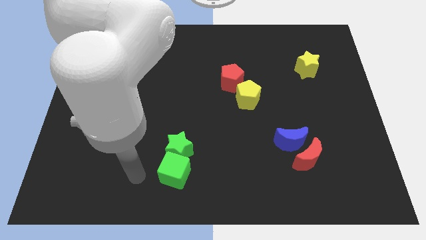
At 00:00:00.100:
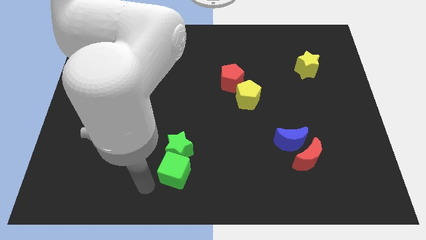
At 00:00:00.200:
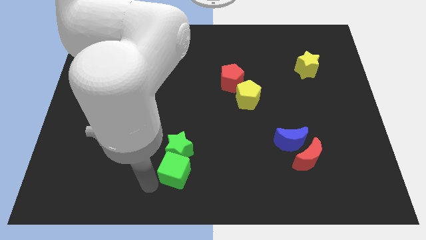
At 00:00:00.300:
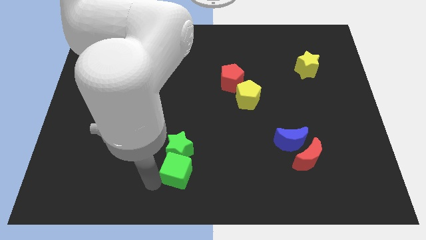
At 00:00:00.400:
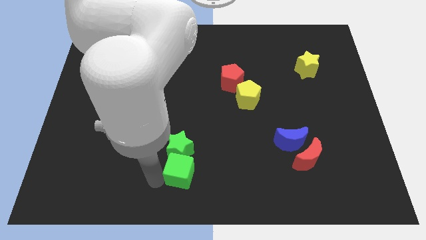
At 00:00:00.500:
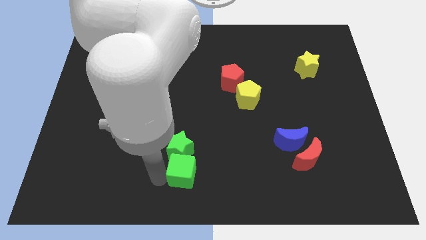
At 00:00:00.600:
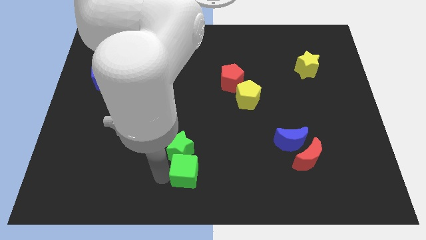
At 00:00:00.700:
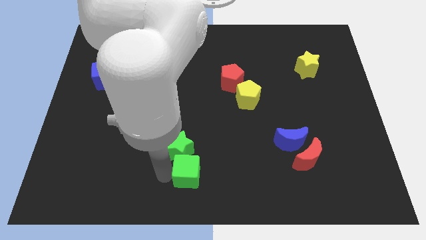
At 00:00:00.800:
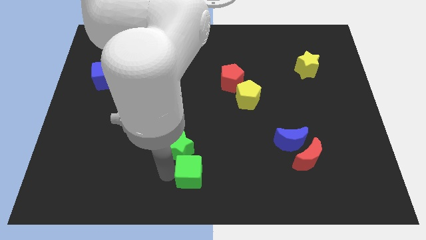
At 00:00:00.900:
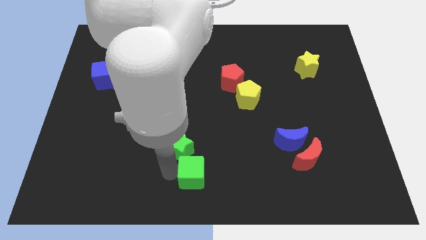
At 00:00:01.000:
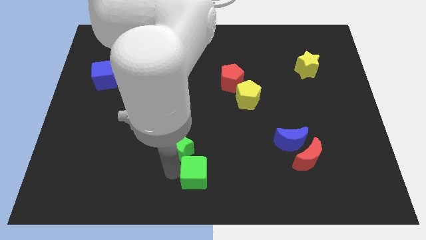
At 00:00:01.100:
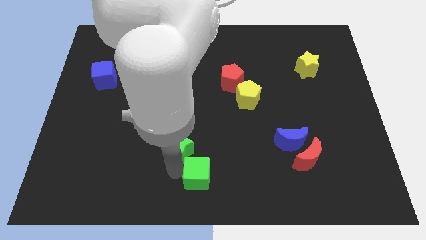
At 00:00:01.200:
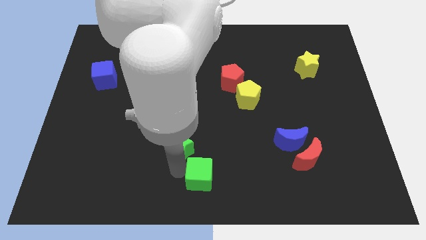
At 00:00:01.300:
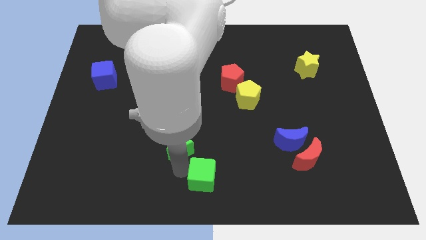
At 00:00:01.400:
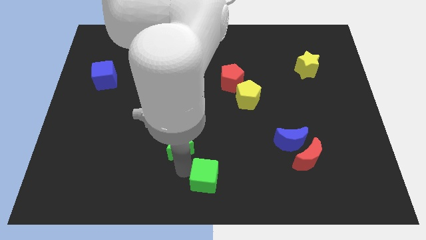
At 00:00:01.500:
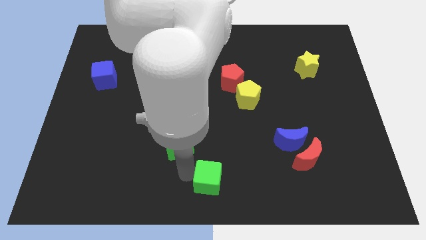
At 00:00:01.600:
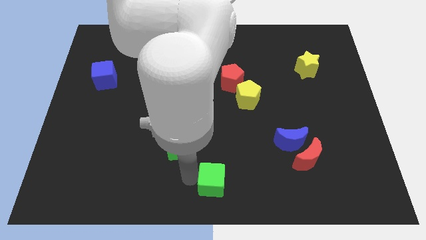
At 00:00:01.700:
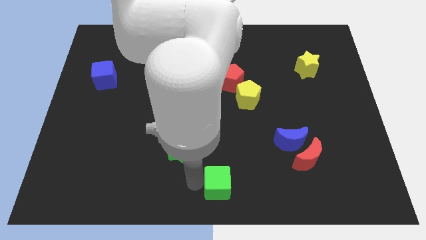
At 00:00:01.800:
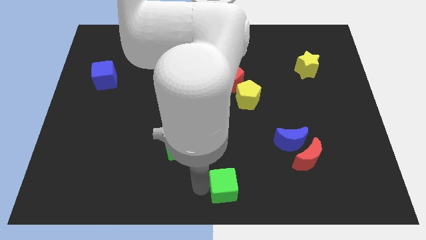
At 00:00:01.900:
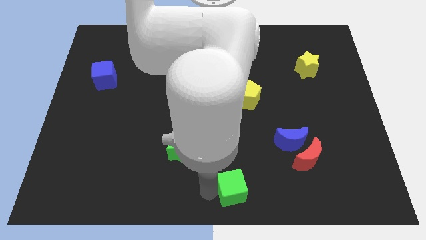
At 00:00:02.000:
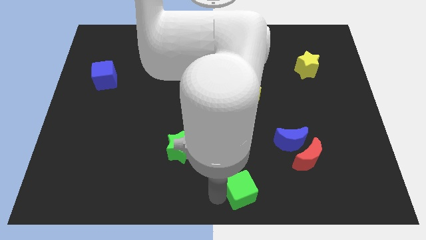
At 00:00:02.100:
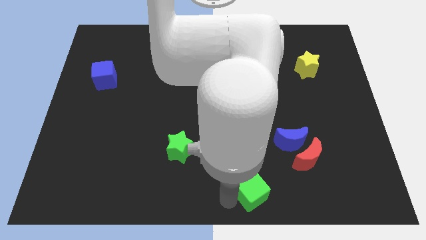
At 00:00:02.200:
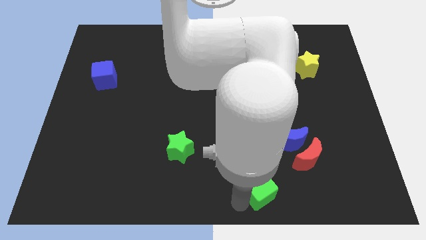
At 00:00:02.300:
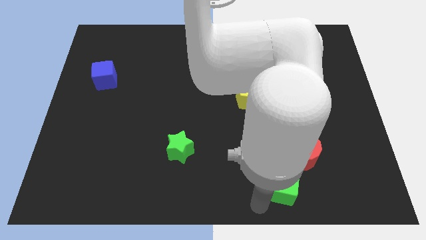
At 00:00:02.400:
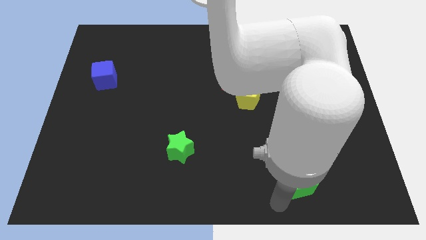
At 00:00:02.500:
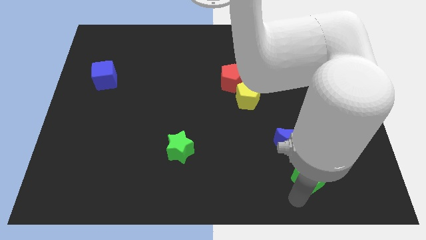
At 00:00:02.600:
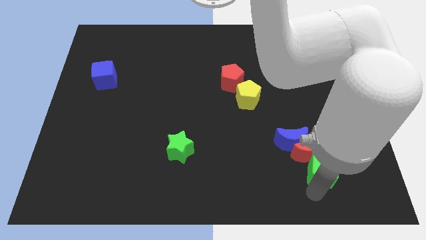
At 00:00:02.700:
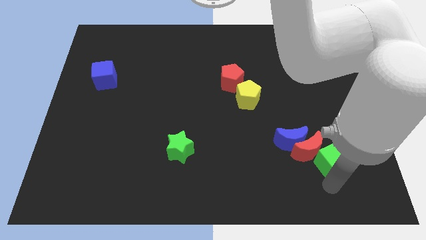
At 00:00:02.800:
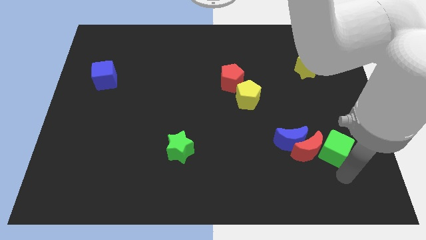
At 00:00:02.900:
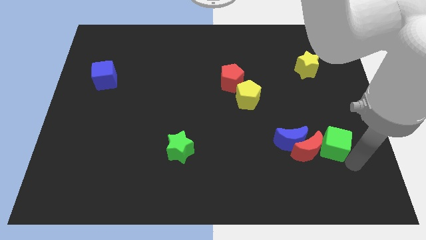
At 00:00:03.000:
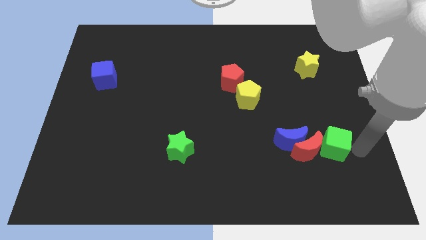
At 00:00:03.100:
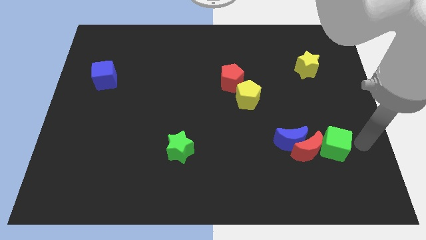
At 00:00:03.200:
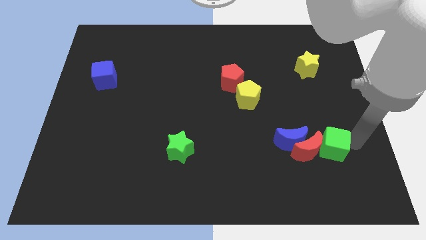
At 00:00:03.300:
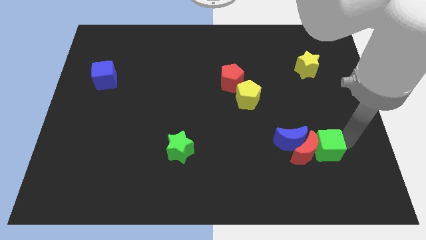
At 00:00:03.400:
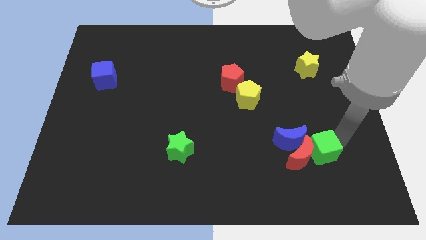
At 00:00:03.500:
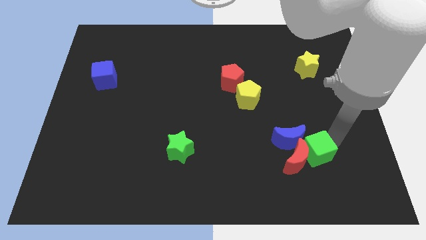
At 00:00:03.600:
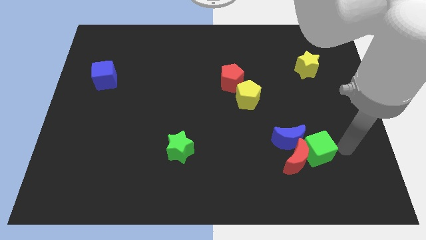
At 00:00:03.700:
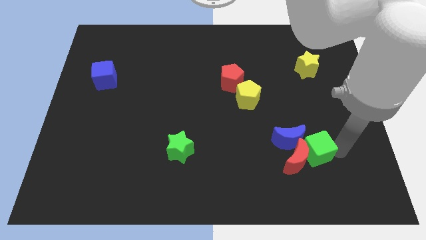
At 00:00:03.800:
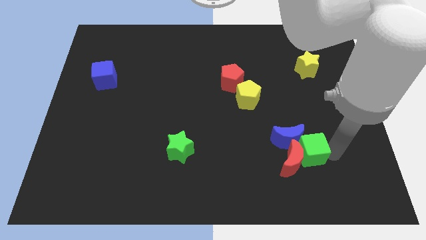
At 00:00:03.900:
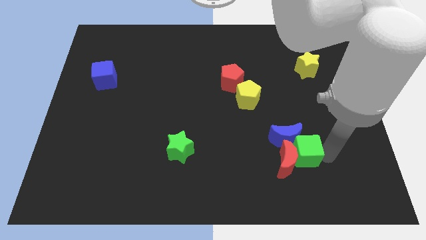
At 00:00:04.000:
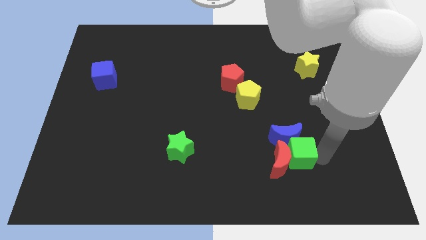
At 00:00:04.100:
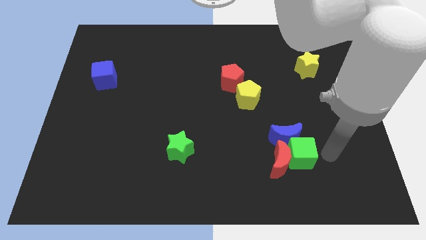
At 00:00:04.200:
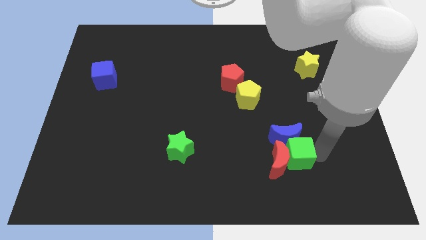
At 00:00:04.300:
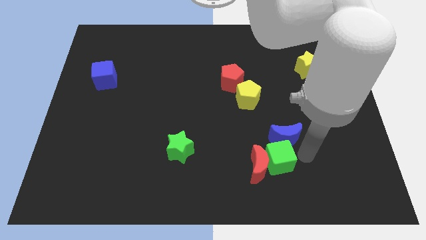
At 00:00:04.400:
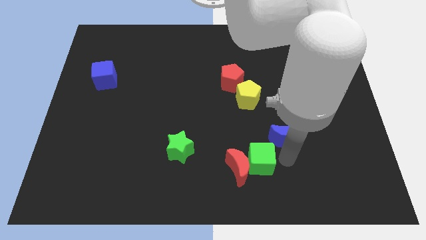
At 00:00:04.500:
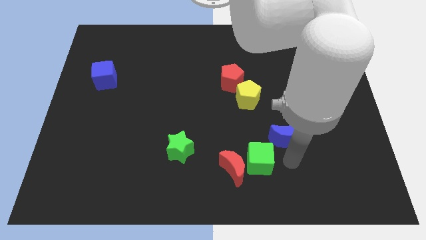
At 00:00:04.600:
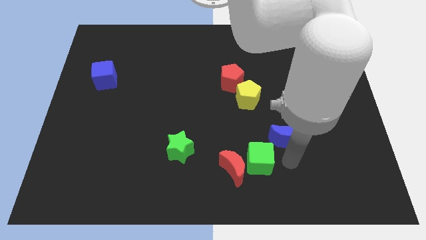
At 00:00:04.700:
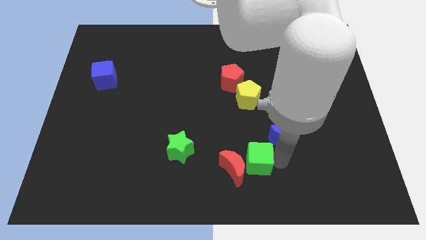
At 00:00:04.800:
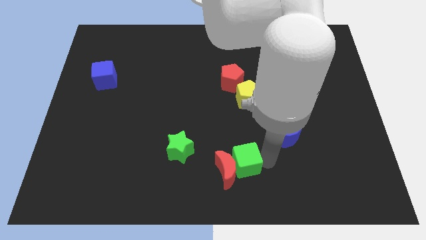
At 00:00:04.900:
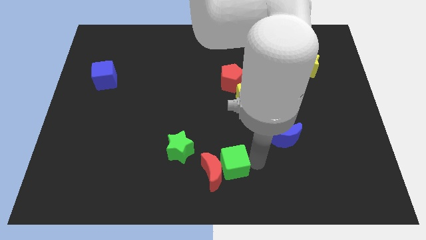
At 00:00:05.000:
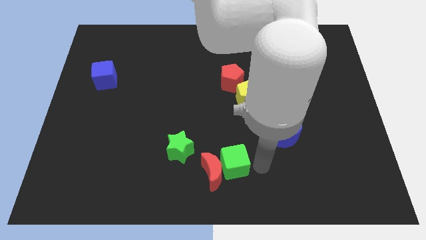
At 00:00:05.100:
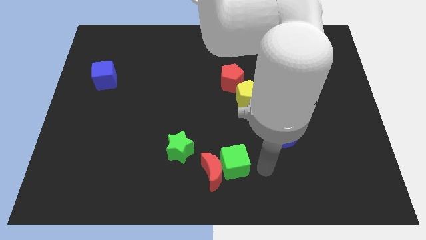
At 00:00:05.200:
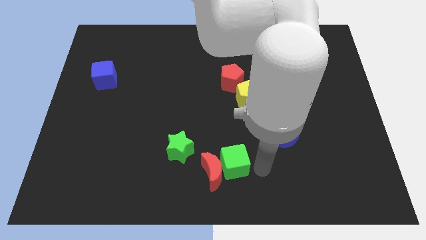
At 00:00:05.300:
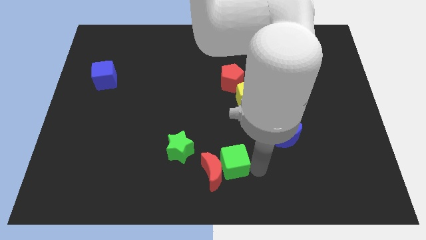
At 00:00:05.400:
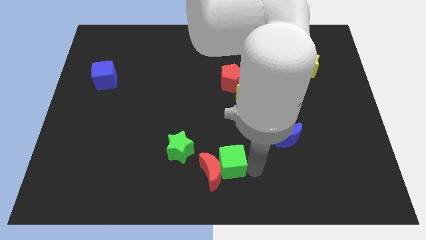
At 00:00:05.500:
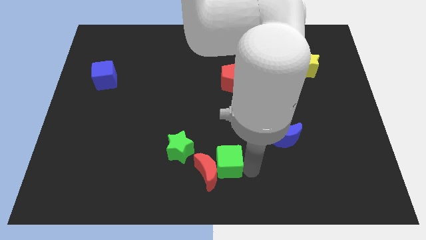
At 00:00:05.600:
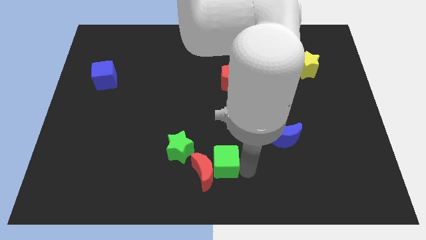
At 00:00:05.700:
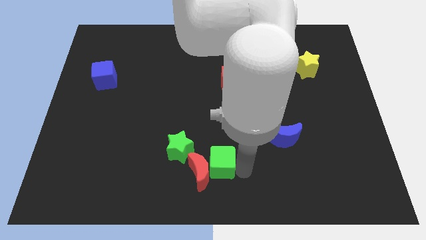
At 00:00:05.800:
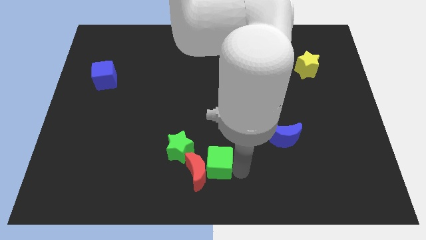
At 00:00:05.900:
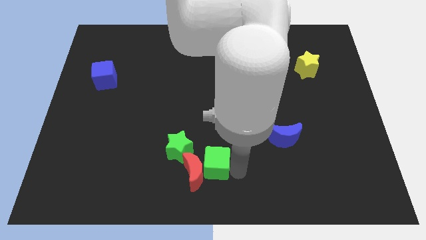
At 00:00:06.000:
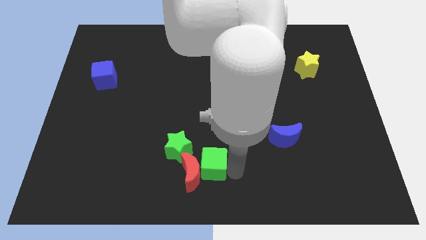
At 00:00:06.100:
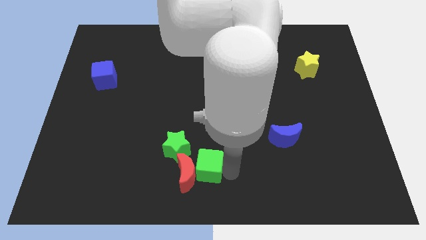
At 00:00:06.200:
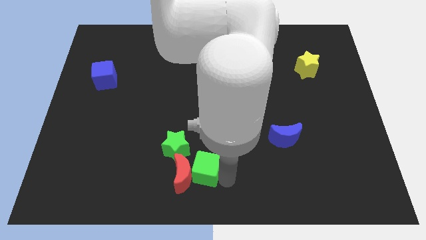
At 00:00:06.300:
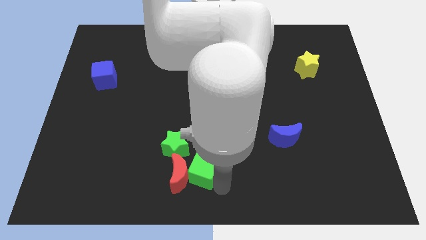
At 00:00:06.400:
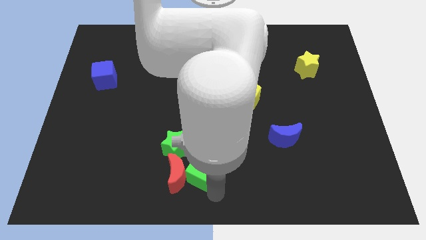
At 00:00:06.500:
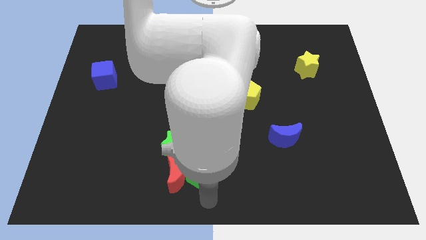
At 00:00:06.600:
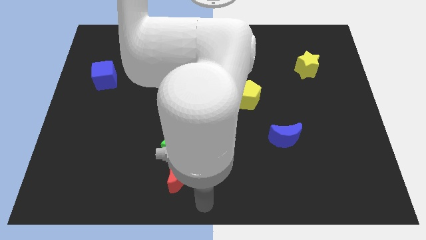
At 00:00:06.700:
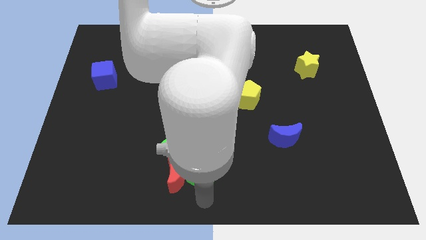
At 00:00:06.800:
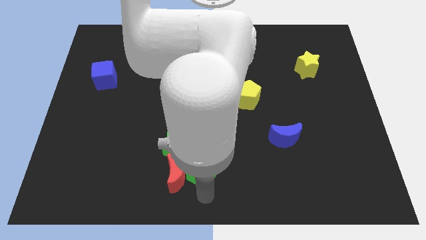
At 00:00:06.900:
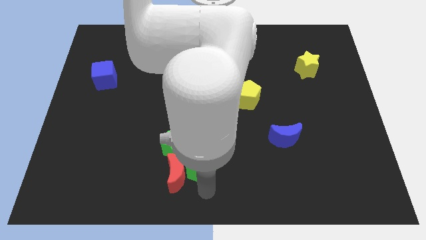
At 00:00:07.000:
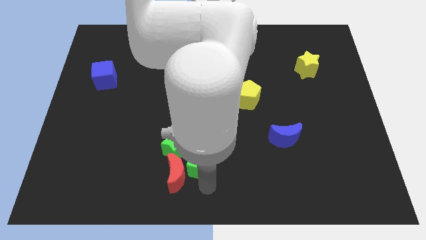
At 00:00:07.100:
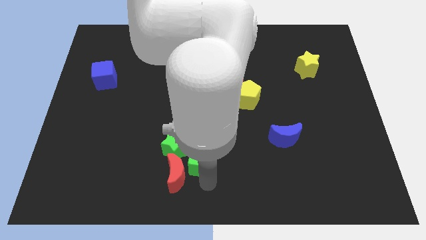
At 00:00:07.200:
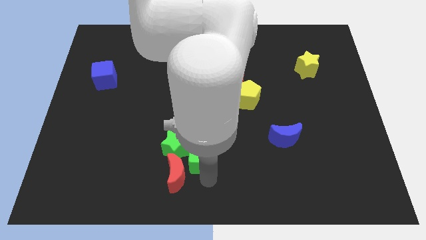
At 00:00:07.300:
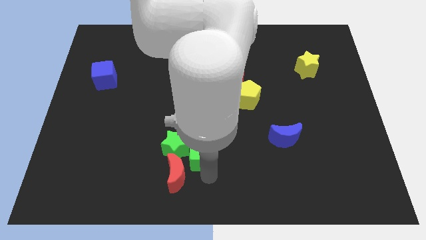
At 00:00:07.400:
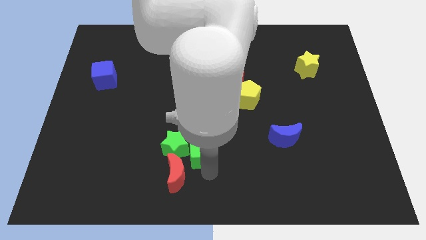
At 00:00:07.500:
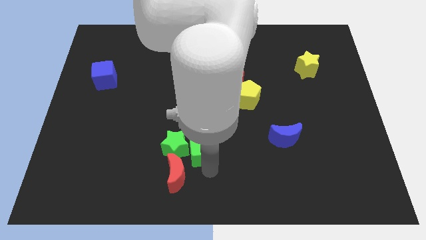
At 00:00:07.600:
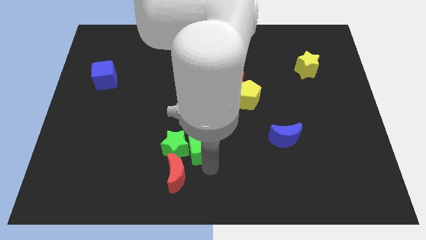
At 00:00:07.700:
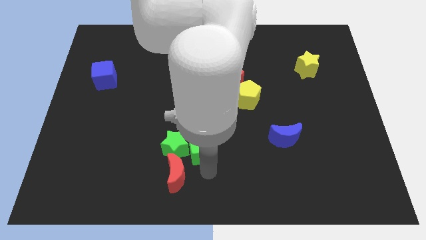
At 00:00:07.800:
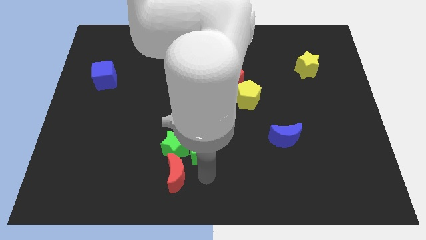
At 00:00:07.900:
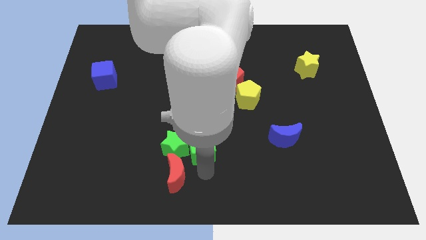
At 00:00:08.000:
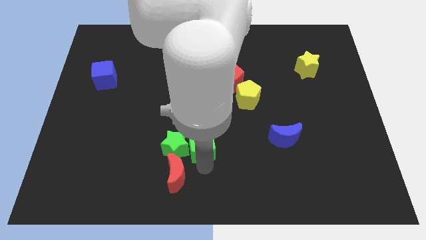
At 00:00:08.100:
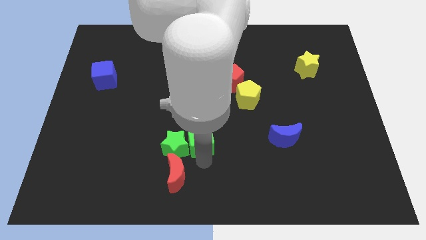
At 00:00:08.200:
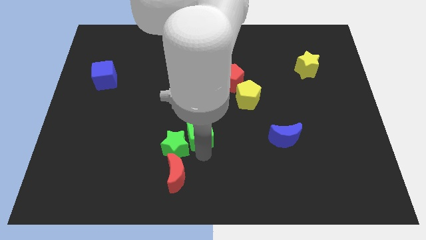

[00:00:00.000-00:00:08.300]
push the green cube a little bit upwards
